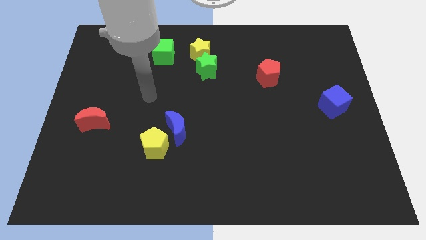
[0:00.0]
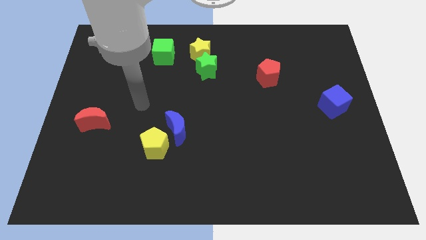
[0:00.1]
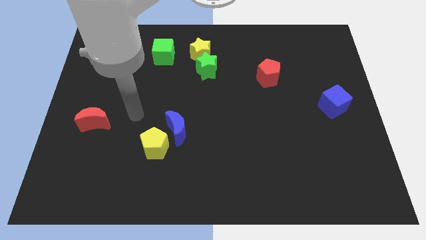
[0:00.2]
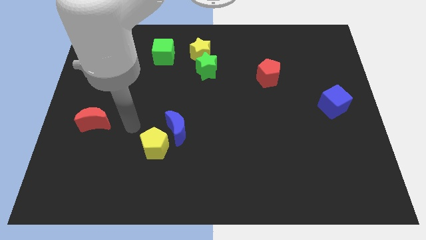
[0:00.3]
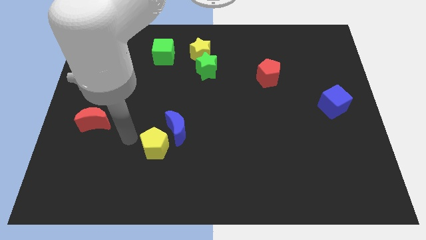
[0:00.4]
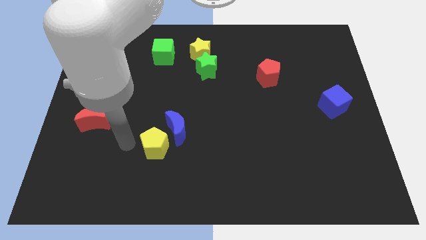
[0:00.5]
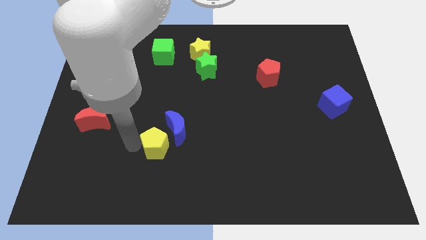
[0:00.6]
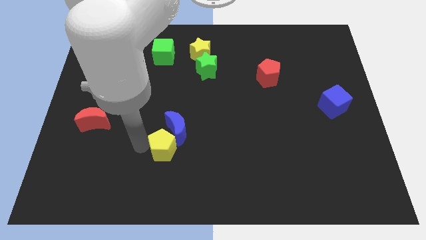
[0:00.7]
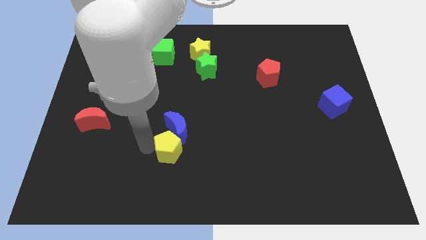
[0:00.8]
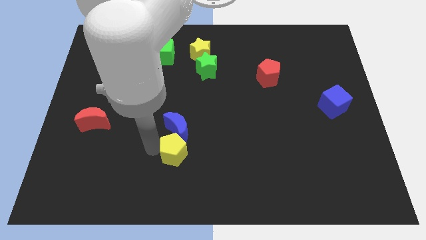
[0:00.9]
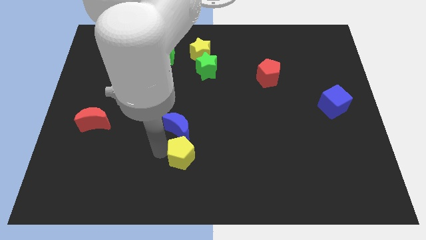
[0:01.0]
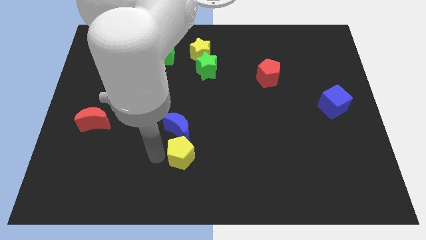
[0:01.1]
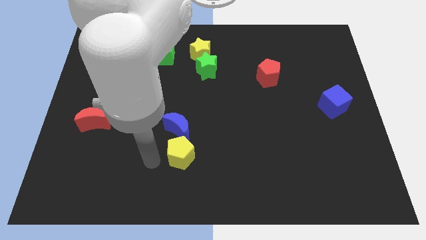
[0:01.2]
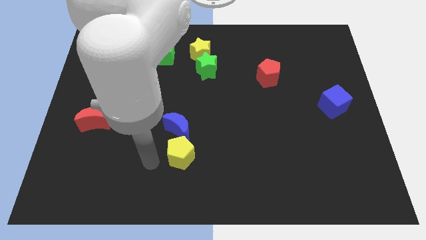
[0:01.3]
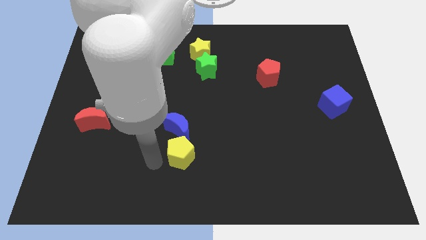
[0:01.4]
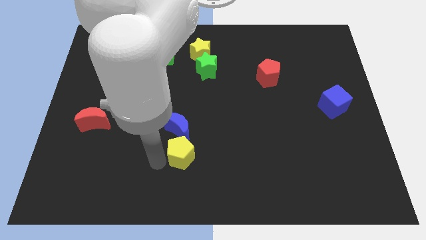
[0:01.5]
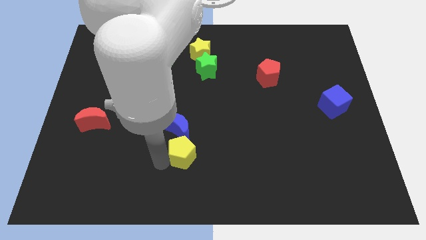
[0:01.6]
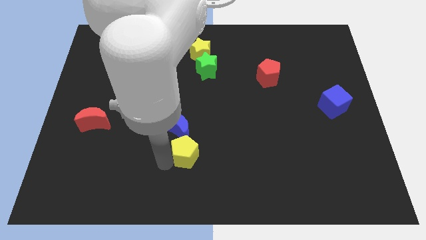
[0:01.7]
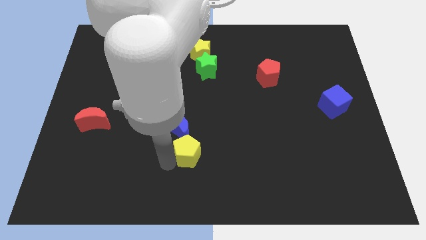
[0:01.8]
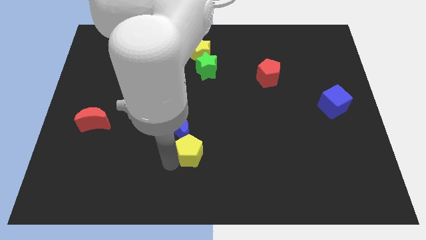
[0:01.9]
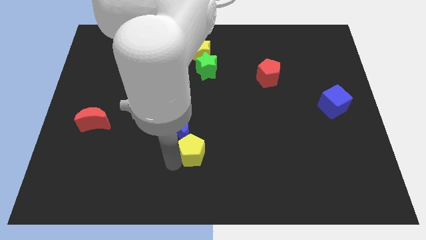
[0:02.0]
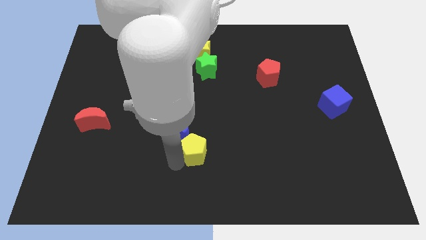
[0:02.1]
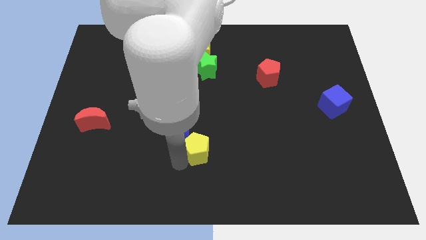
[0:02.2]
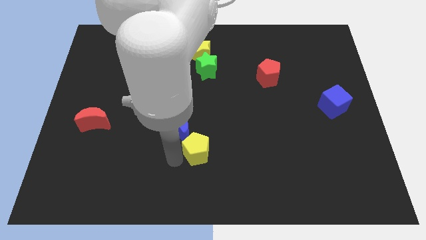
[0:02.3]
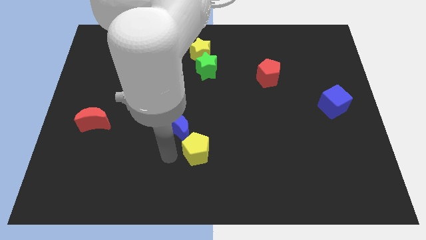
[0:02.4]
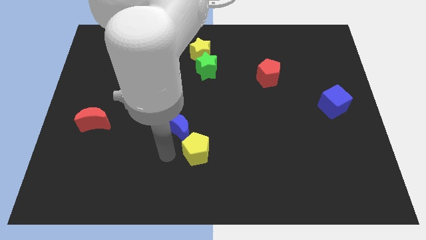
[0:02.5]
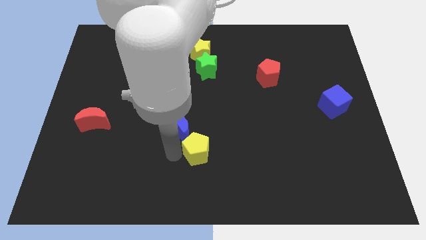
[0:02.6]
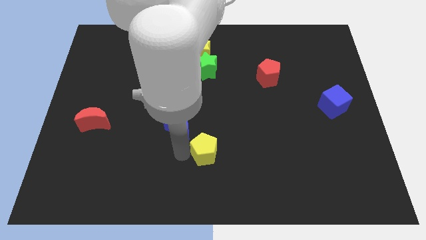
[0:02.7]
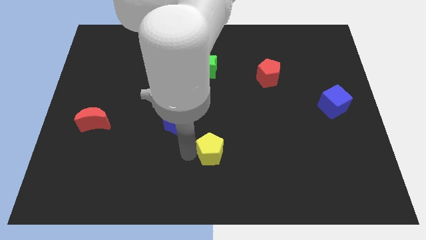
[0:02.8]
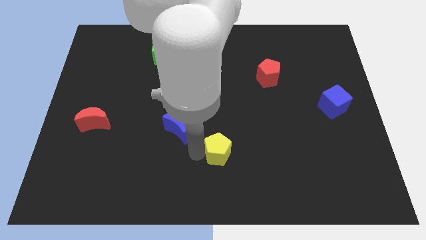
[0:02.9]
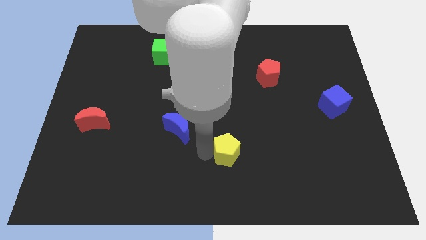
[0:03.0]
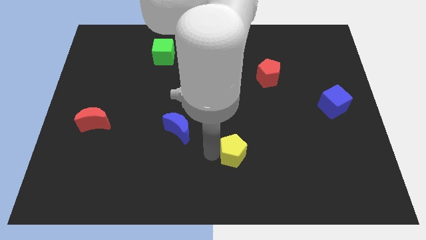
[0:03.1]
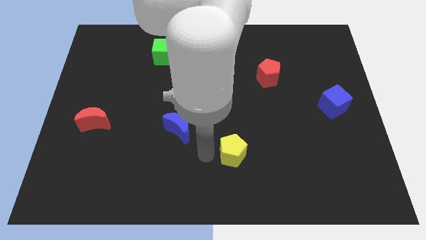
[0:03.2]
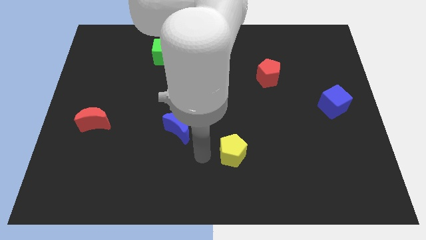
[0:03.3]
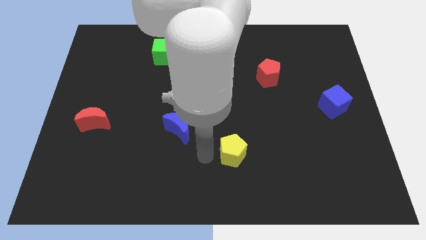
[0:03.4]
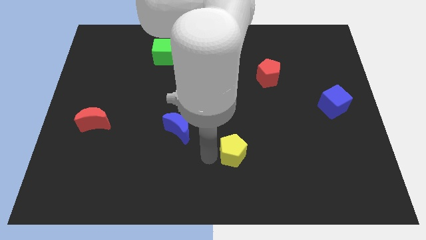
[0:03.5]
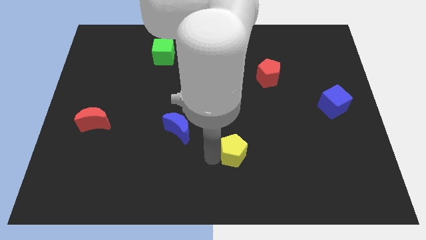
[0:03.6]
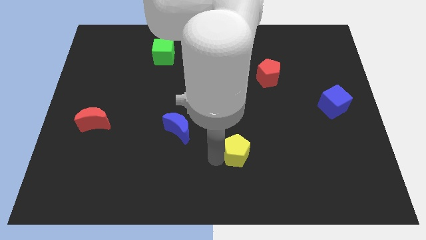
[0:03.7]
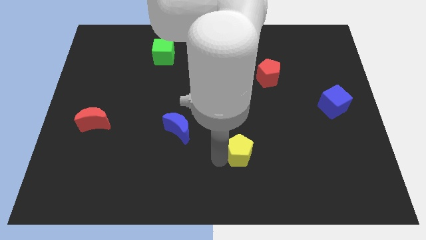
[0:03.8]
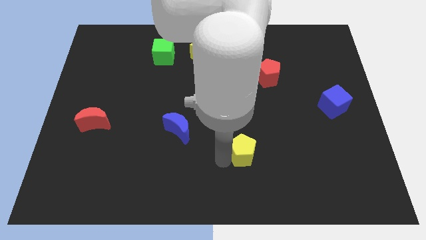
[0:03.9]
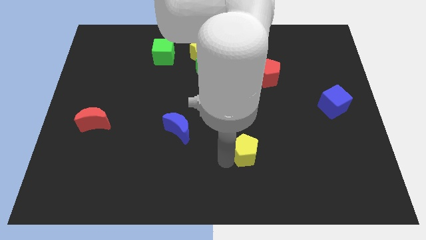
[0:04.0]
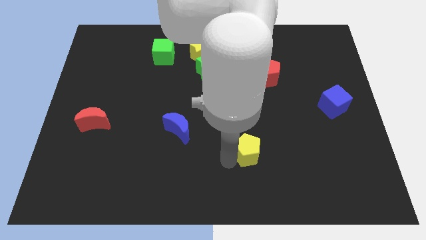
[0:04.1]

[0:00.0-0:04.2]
move the yellow pentagon right

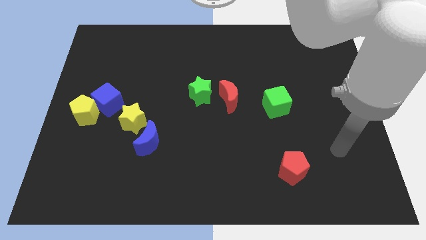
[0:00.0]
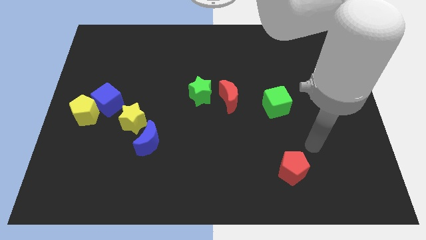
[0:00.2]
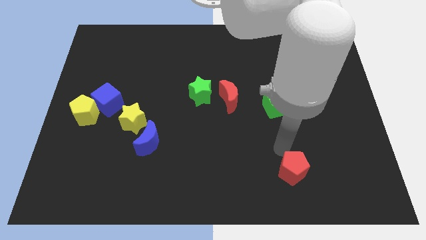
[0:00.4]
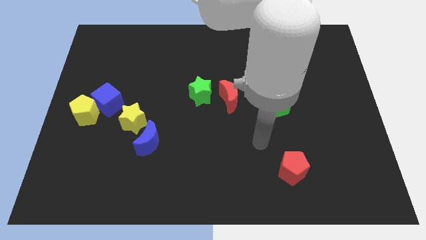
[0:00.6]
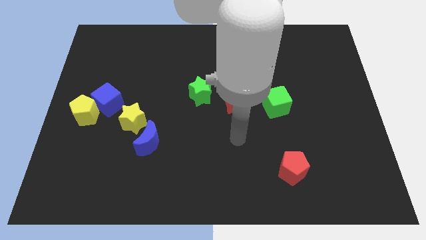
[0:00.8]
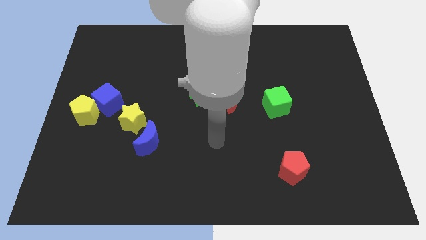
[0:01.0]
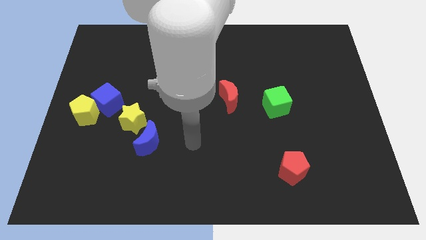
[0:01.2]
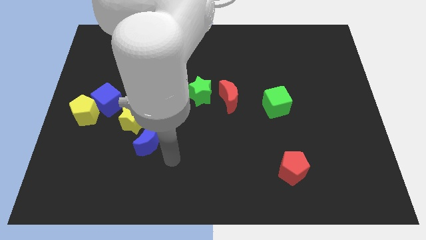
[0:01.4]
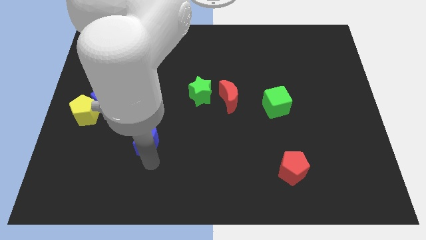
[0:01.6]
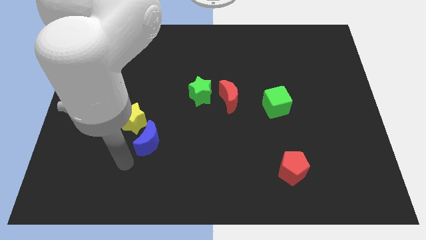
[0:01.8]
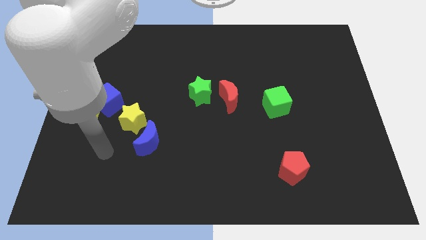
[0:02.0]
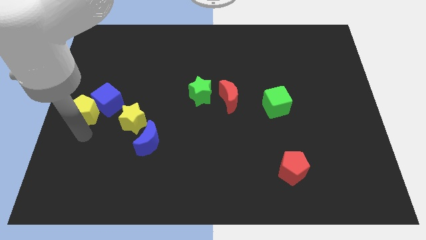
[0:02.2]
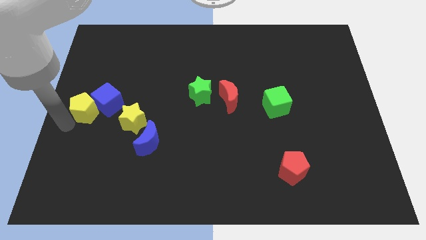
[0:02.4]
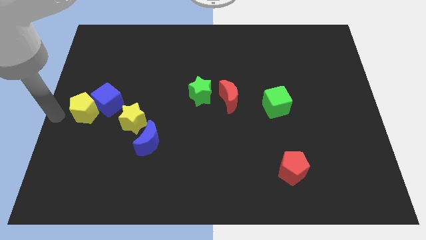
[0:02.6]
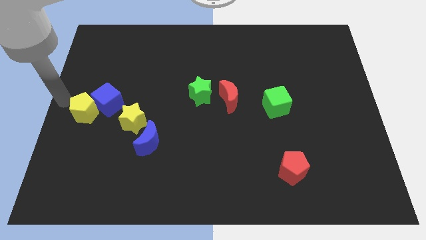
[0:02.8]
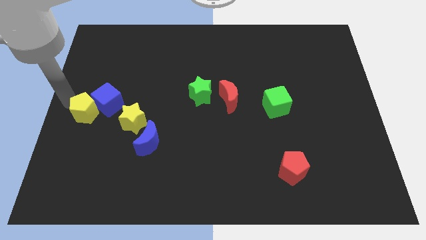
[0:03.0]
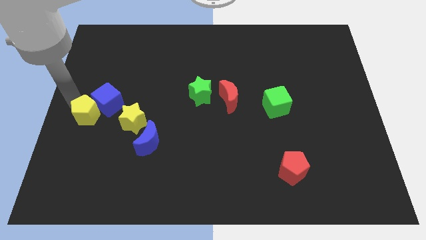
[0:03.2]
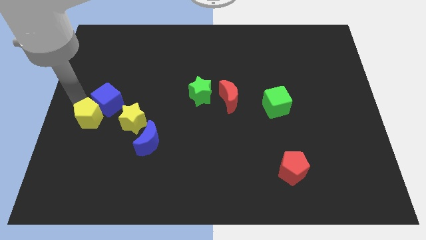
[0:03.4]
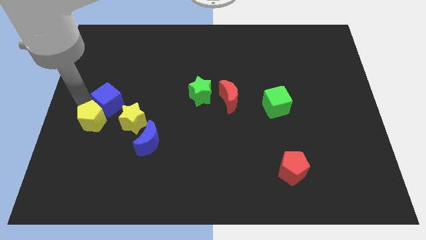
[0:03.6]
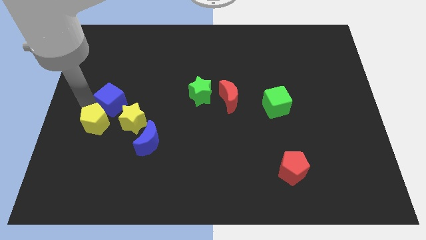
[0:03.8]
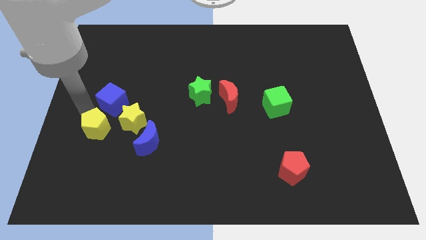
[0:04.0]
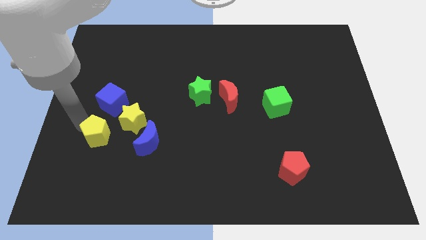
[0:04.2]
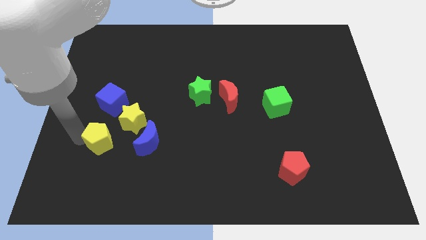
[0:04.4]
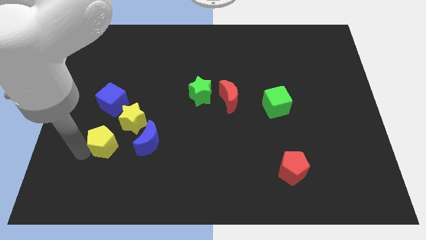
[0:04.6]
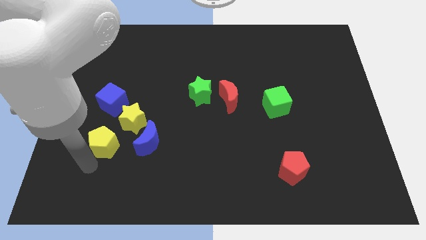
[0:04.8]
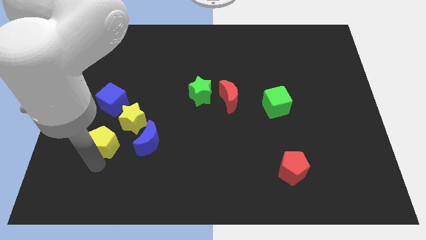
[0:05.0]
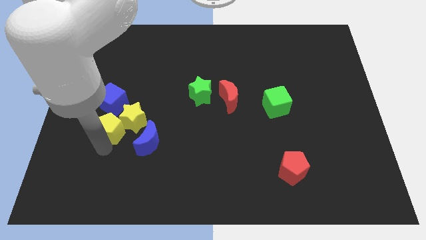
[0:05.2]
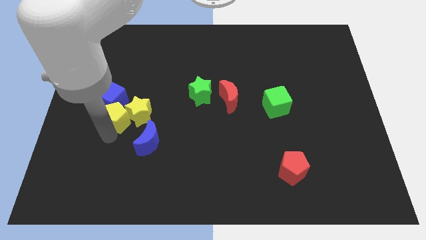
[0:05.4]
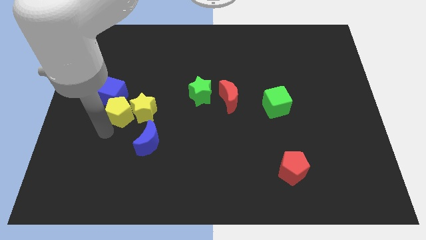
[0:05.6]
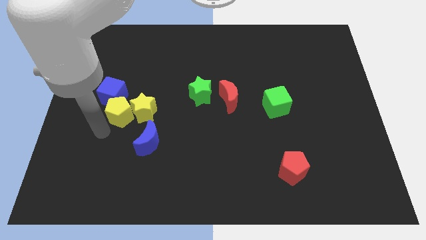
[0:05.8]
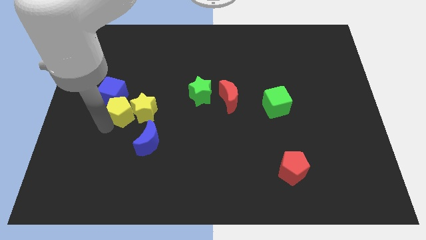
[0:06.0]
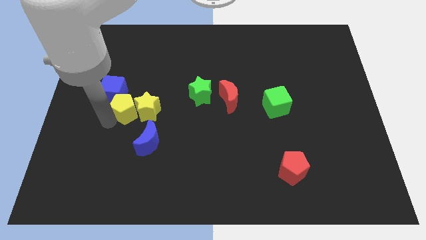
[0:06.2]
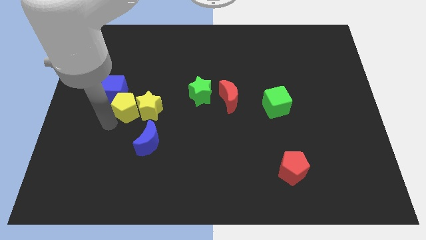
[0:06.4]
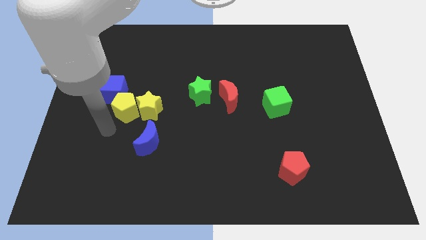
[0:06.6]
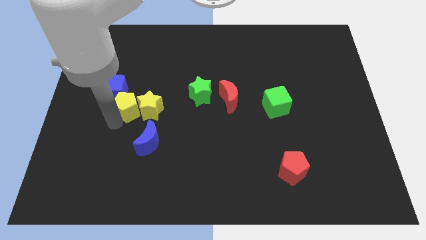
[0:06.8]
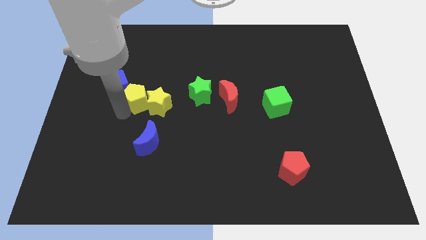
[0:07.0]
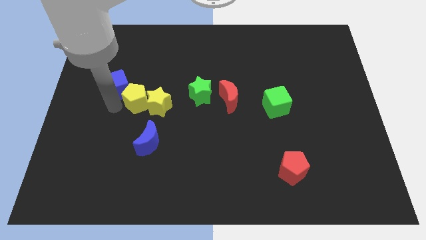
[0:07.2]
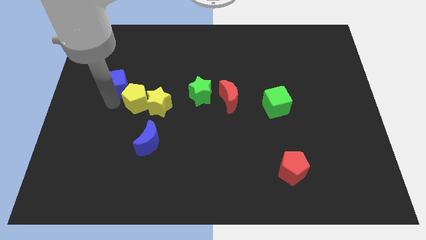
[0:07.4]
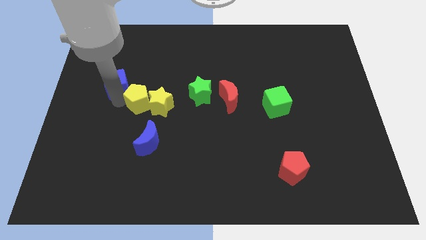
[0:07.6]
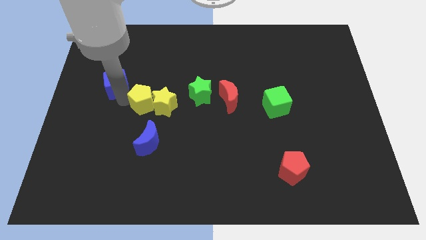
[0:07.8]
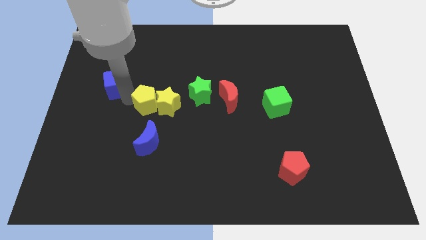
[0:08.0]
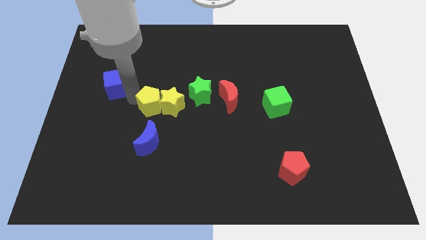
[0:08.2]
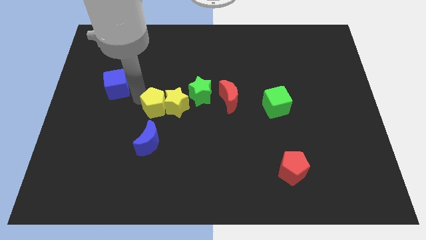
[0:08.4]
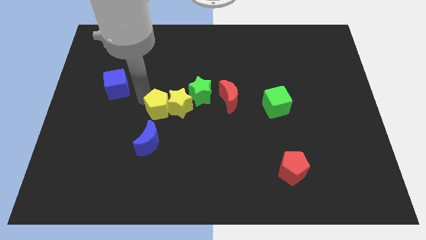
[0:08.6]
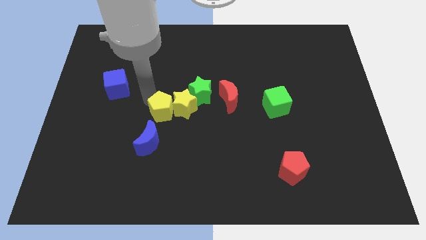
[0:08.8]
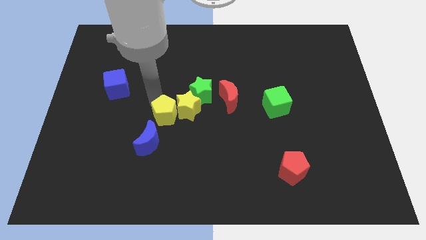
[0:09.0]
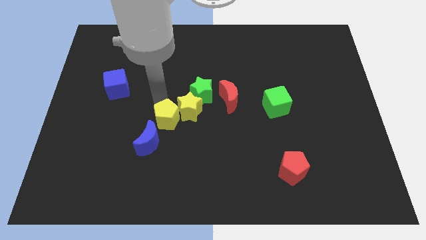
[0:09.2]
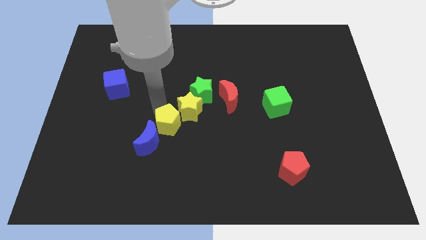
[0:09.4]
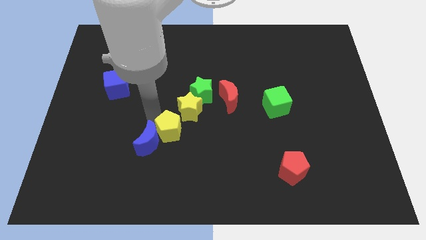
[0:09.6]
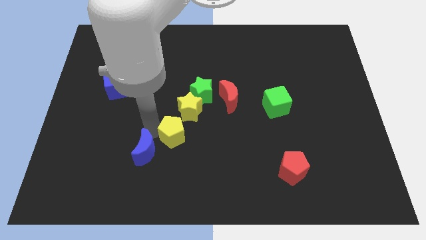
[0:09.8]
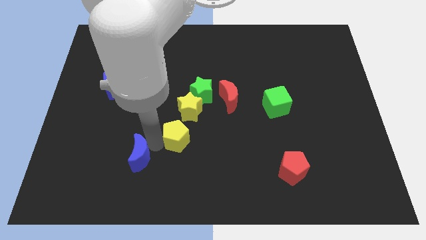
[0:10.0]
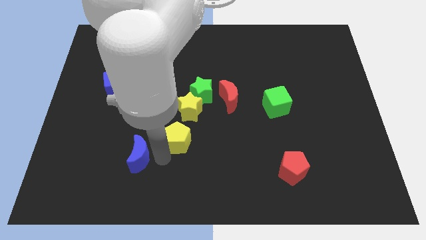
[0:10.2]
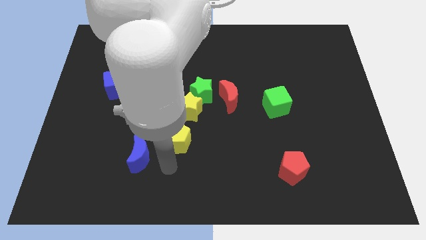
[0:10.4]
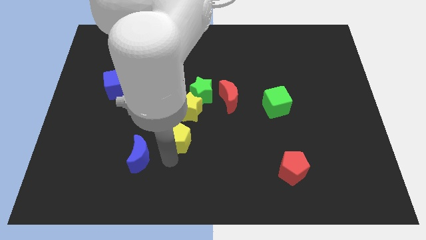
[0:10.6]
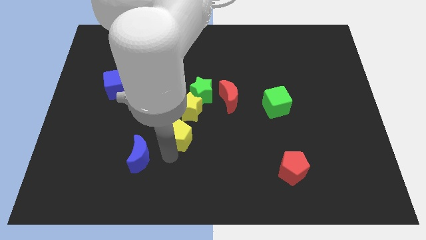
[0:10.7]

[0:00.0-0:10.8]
slide the yellow pentagon to the right
